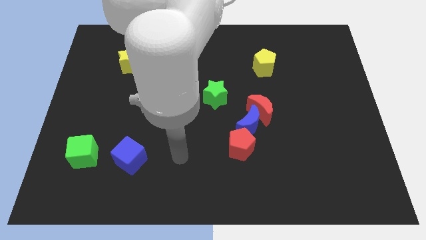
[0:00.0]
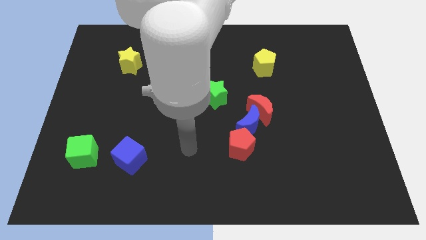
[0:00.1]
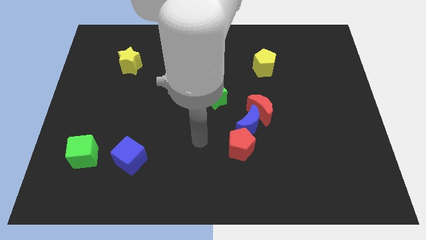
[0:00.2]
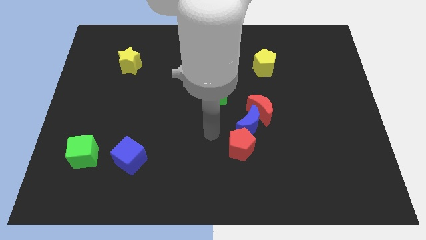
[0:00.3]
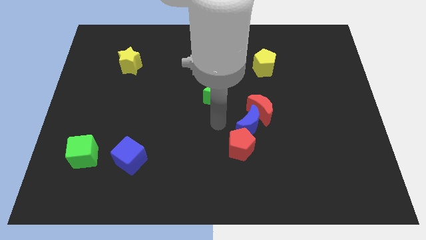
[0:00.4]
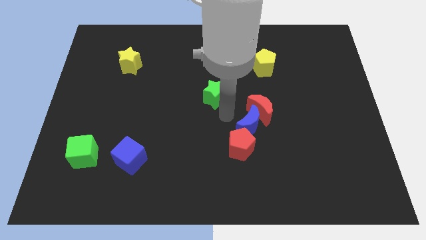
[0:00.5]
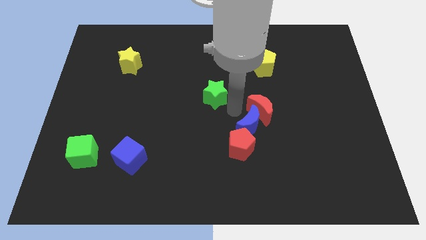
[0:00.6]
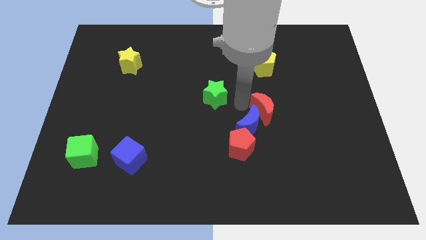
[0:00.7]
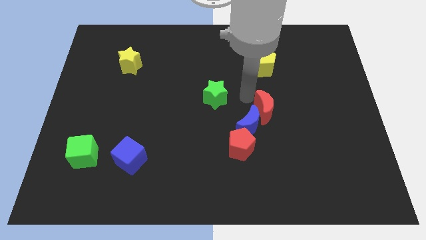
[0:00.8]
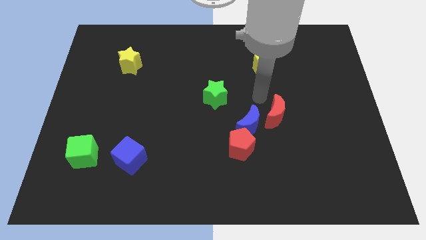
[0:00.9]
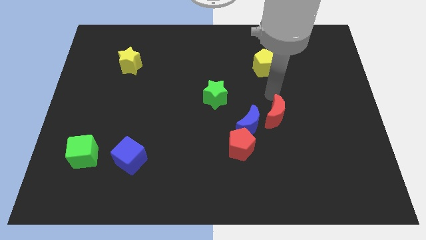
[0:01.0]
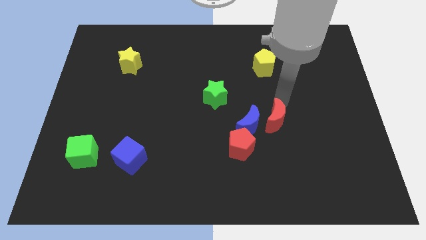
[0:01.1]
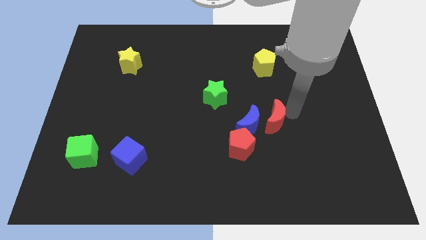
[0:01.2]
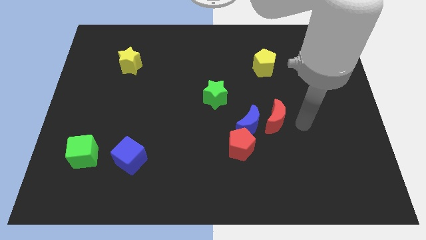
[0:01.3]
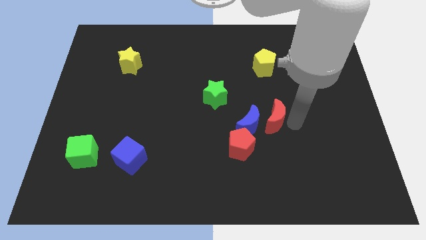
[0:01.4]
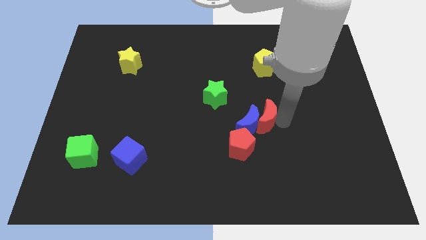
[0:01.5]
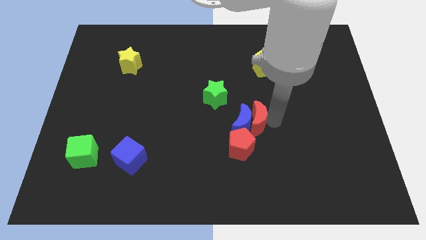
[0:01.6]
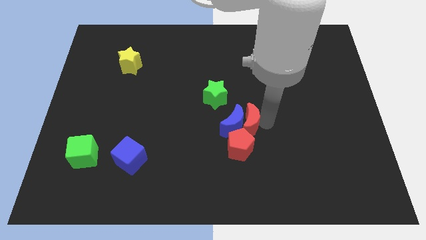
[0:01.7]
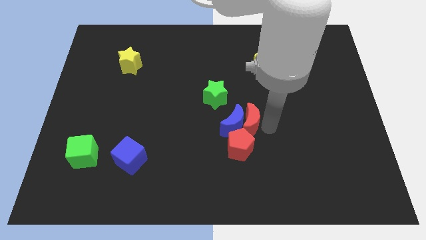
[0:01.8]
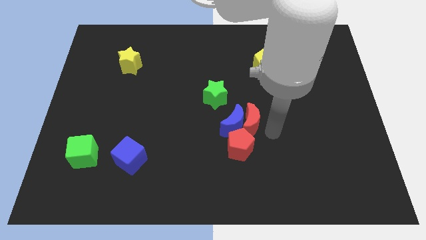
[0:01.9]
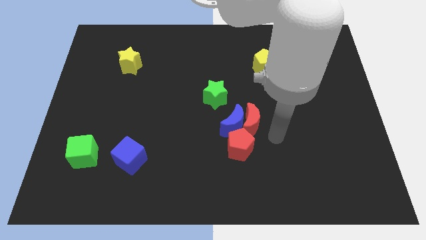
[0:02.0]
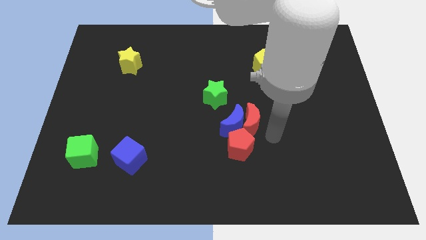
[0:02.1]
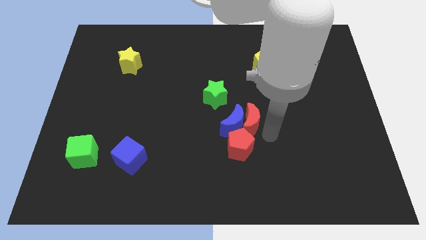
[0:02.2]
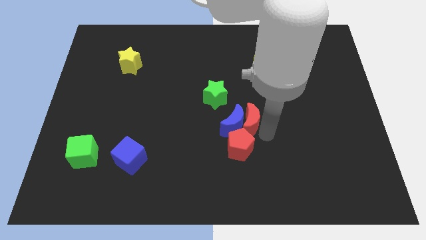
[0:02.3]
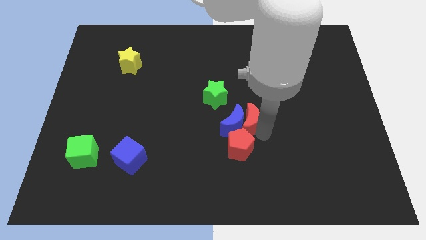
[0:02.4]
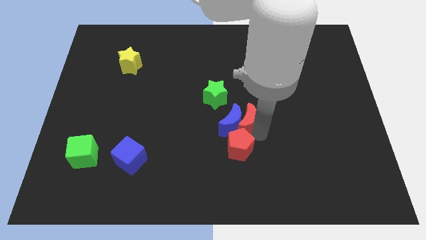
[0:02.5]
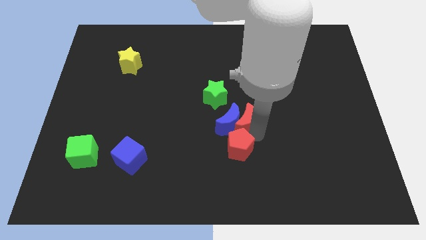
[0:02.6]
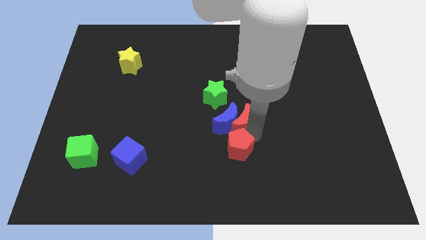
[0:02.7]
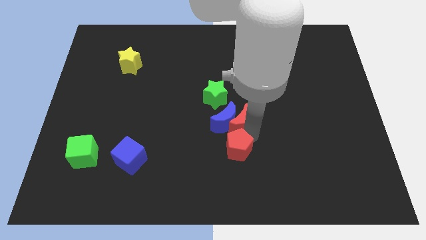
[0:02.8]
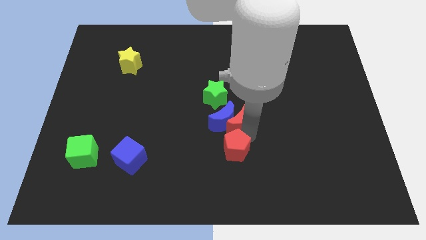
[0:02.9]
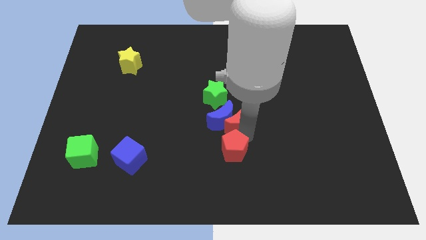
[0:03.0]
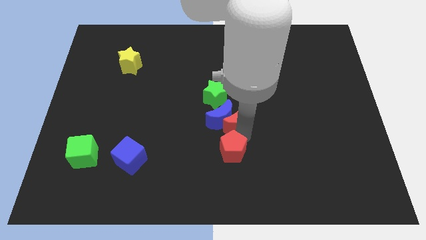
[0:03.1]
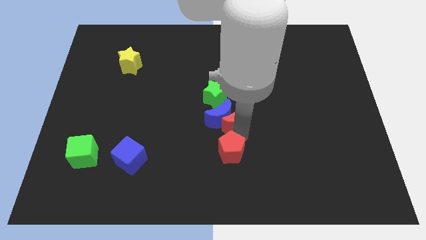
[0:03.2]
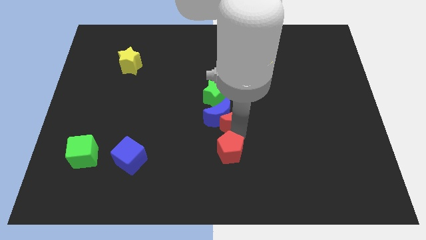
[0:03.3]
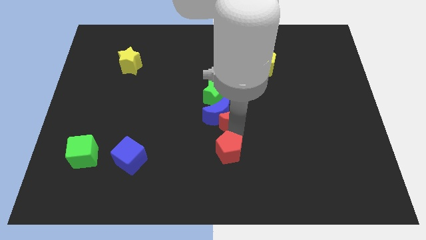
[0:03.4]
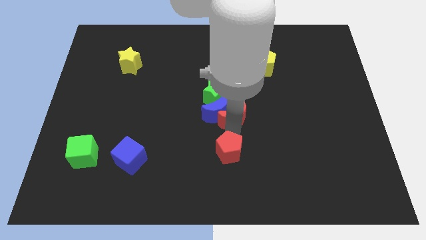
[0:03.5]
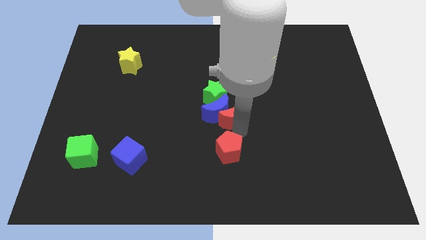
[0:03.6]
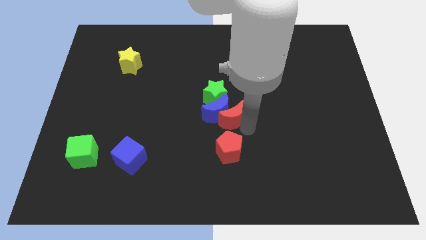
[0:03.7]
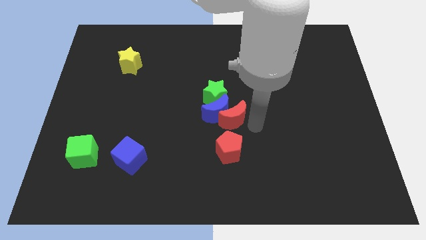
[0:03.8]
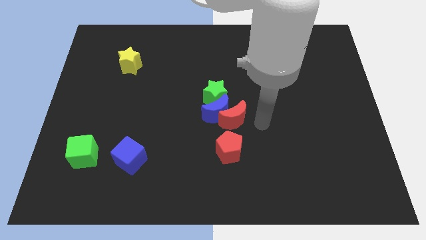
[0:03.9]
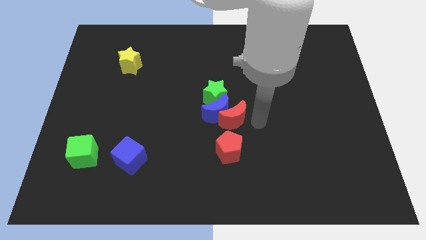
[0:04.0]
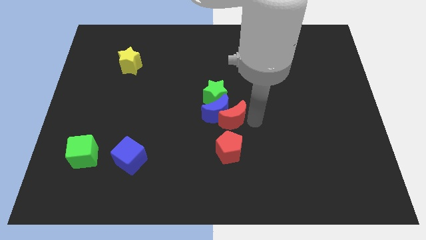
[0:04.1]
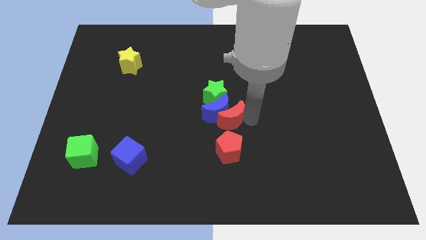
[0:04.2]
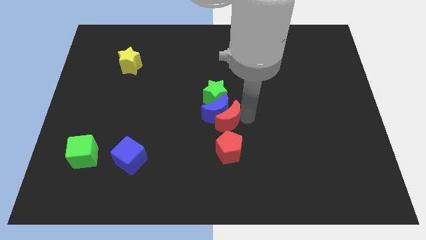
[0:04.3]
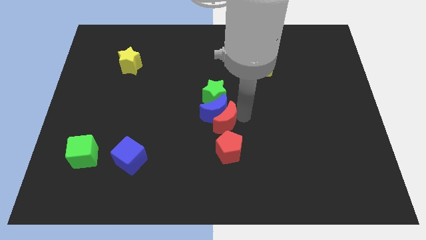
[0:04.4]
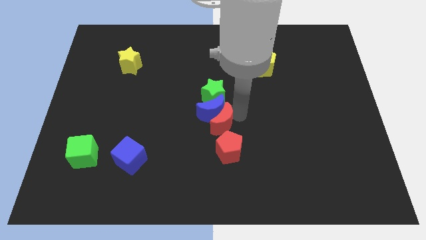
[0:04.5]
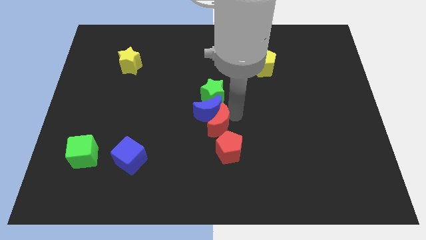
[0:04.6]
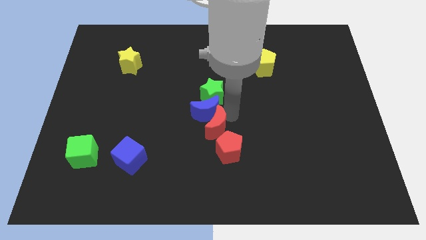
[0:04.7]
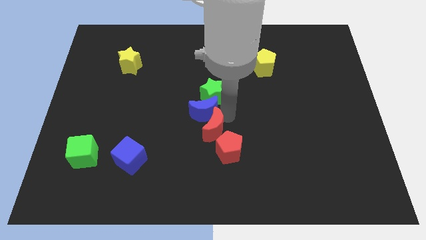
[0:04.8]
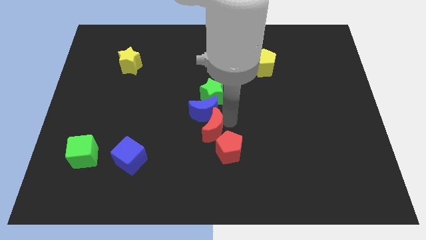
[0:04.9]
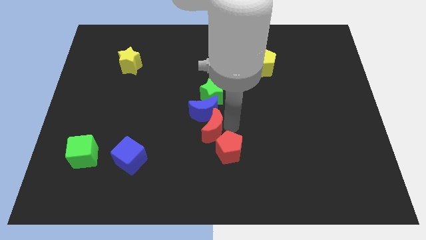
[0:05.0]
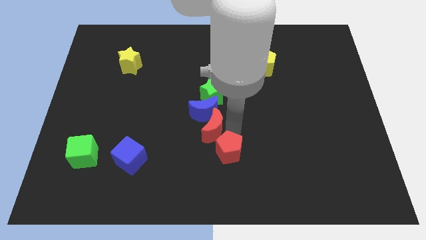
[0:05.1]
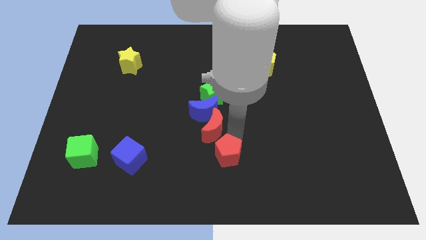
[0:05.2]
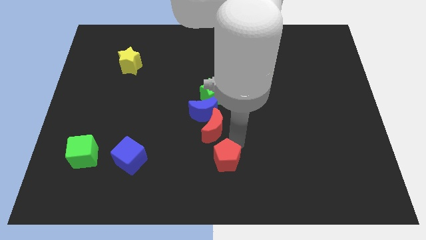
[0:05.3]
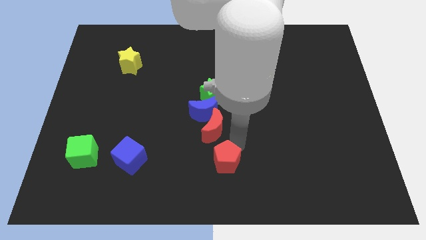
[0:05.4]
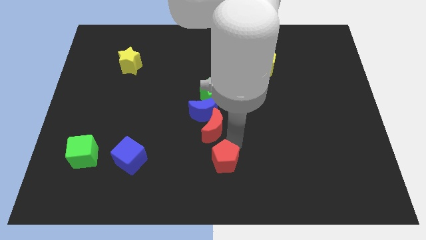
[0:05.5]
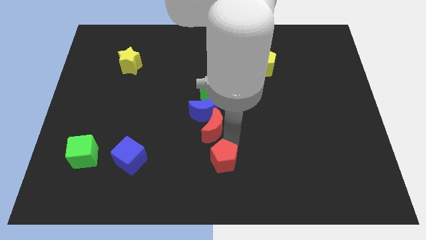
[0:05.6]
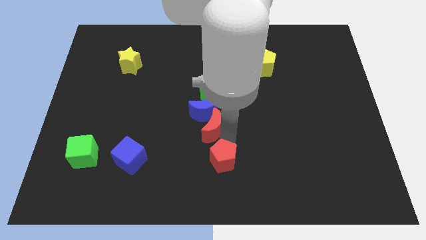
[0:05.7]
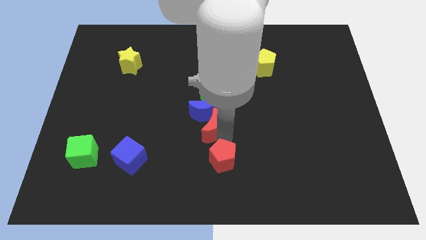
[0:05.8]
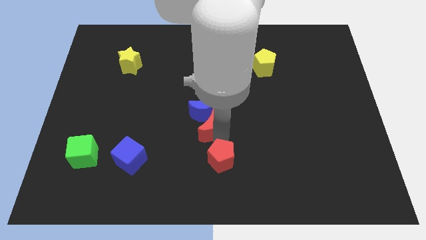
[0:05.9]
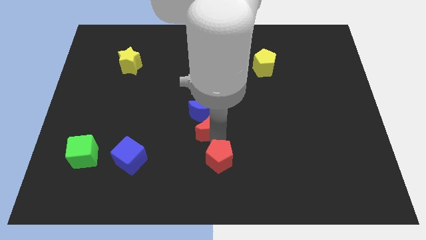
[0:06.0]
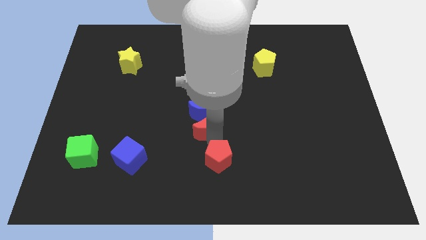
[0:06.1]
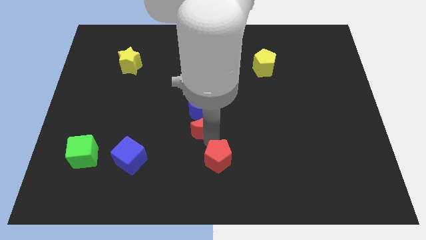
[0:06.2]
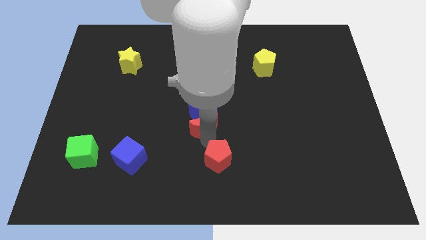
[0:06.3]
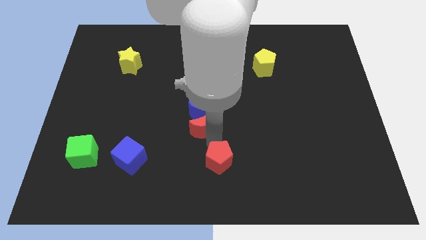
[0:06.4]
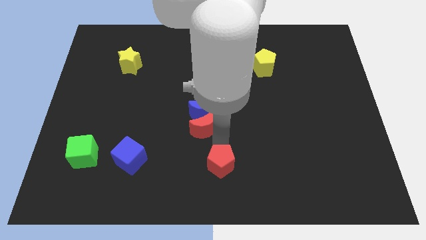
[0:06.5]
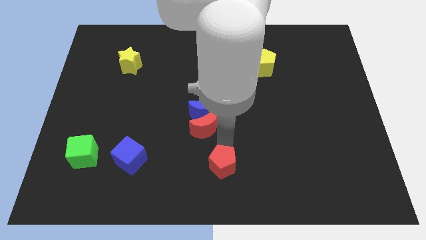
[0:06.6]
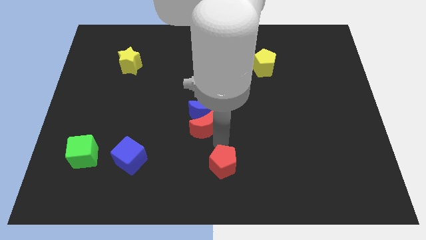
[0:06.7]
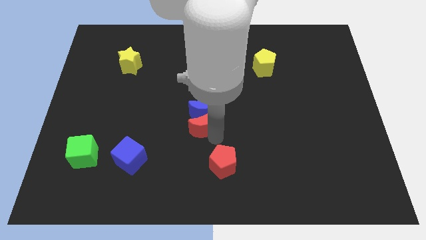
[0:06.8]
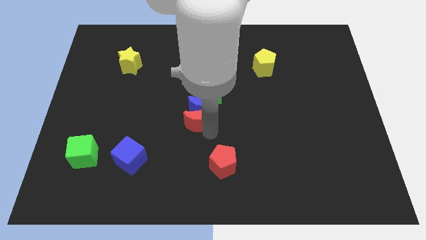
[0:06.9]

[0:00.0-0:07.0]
move the red moon to the bottom left side of the green star
